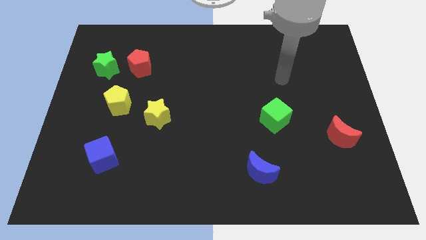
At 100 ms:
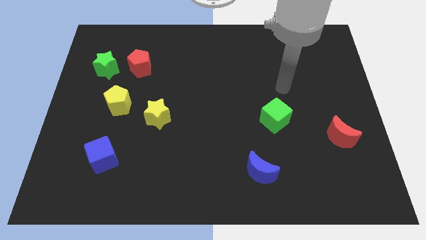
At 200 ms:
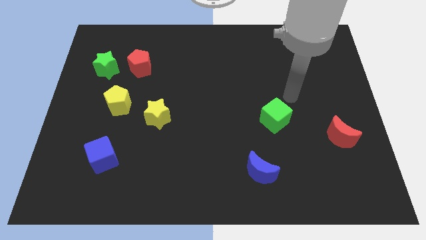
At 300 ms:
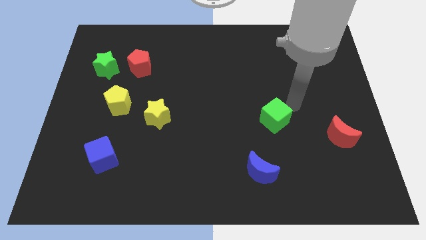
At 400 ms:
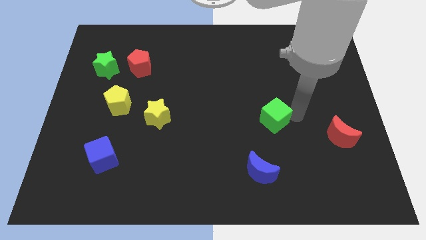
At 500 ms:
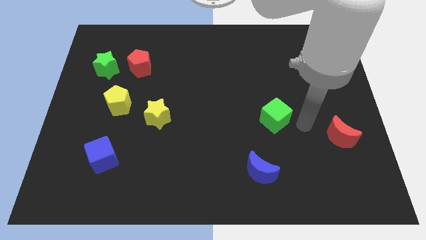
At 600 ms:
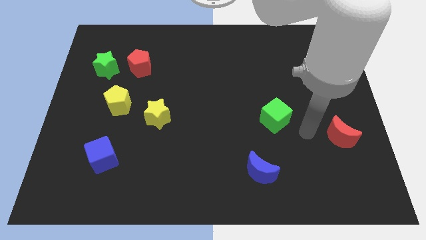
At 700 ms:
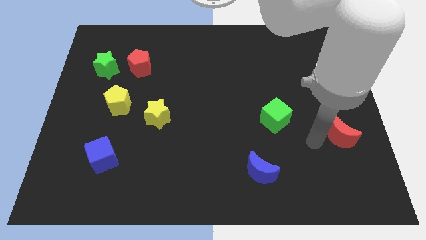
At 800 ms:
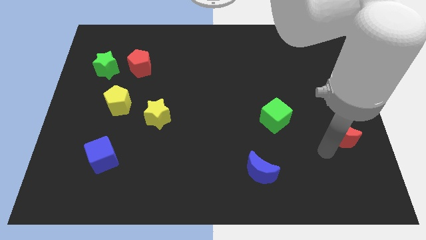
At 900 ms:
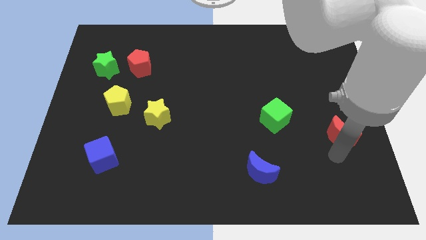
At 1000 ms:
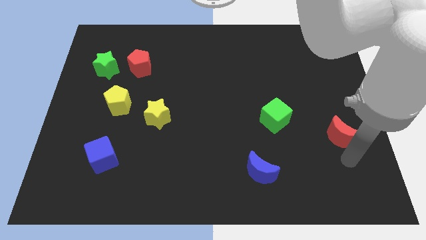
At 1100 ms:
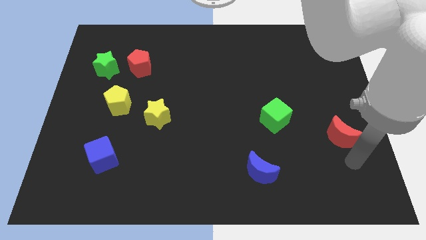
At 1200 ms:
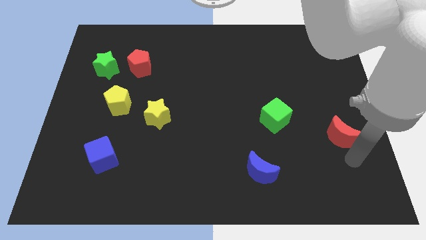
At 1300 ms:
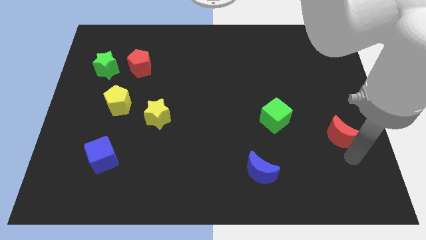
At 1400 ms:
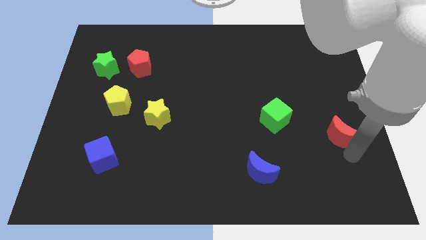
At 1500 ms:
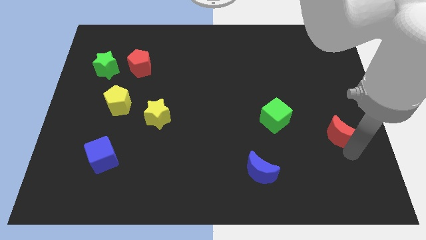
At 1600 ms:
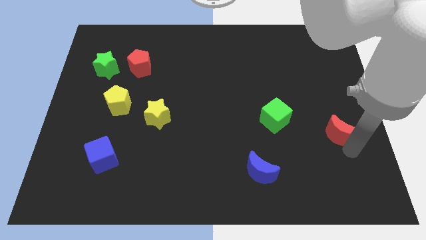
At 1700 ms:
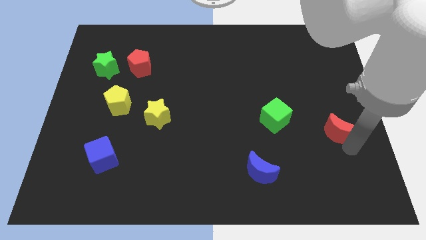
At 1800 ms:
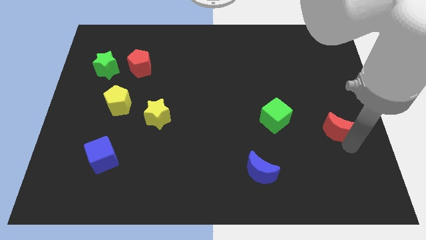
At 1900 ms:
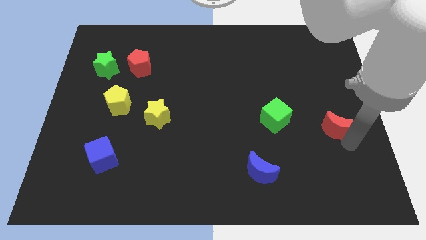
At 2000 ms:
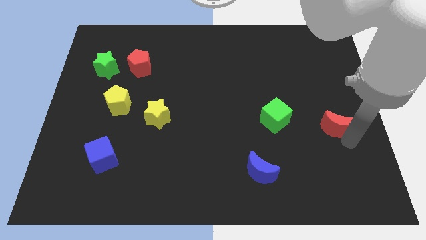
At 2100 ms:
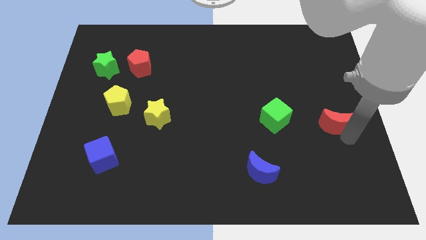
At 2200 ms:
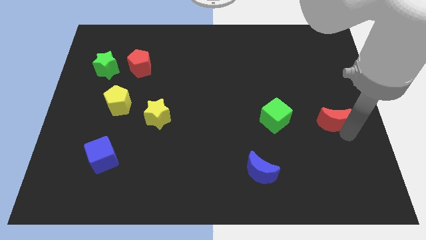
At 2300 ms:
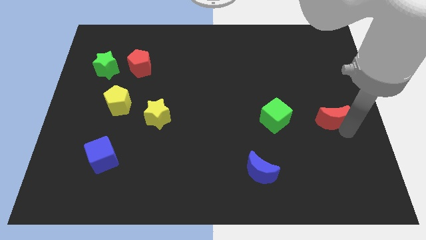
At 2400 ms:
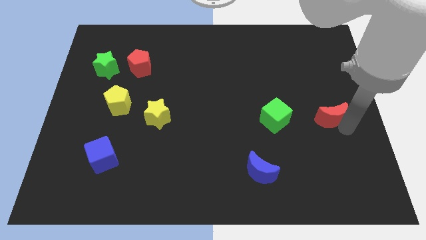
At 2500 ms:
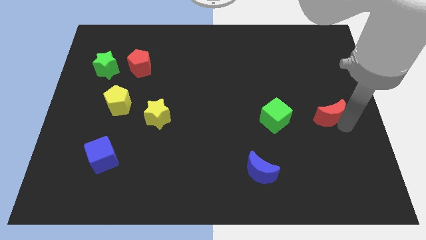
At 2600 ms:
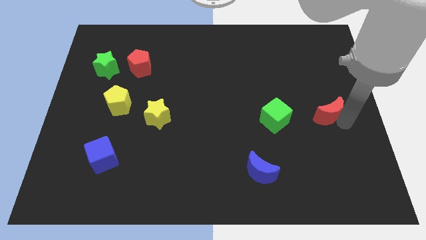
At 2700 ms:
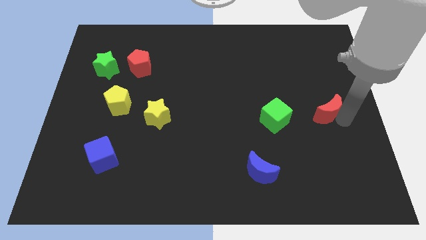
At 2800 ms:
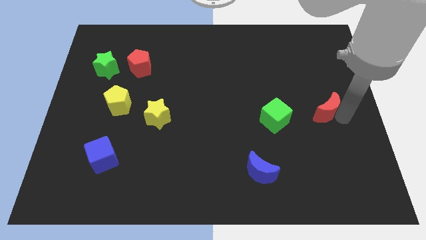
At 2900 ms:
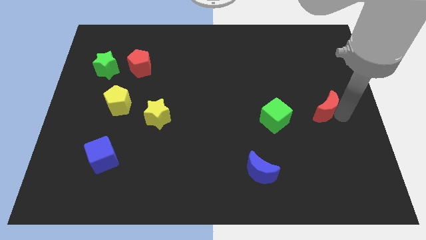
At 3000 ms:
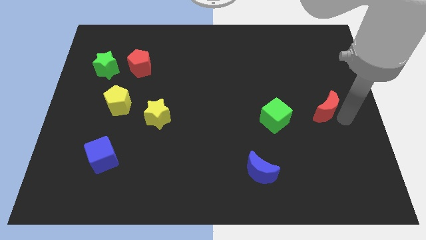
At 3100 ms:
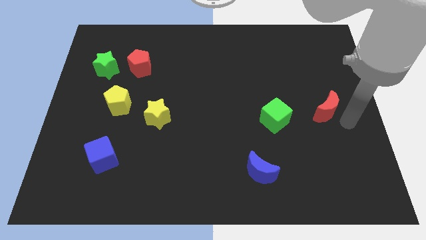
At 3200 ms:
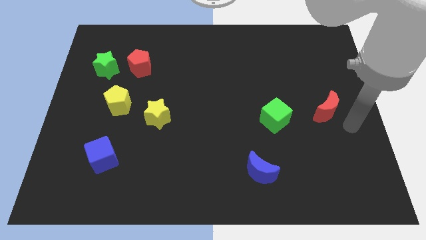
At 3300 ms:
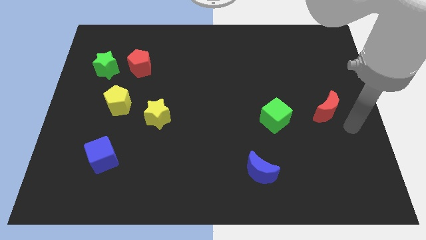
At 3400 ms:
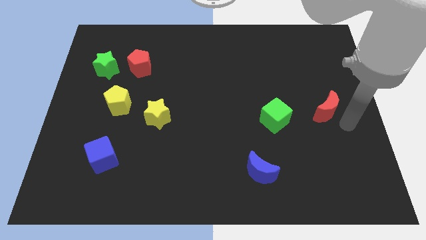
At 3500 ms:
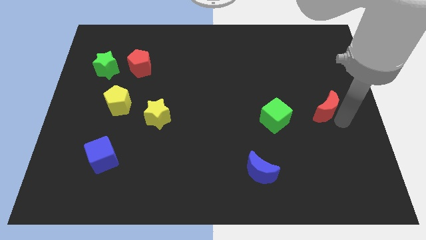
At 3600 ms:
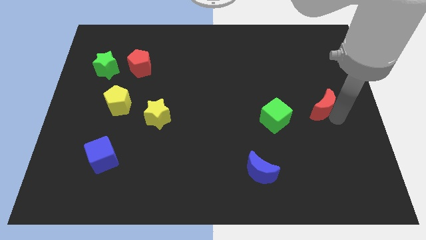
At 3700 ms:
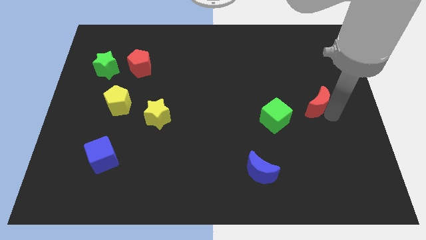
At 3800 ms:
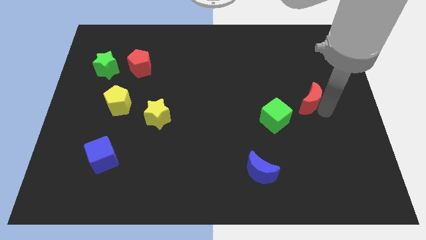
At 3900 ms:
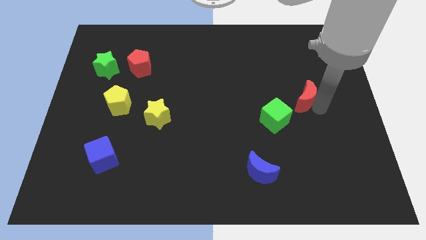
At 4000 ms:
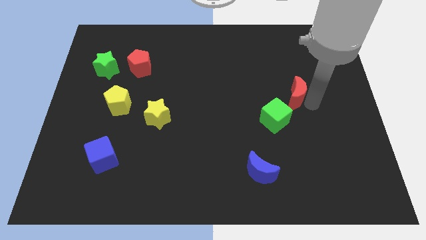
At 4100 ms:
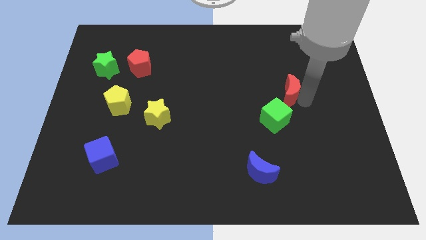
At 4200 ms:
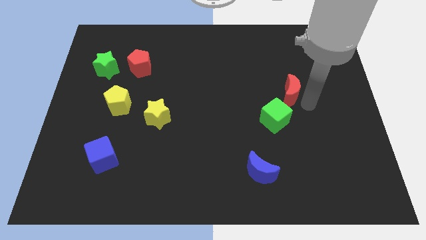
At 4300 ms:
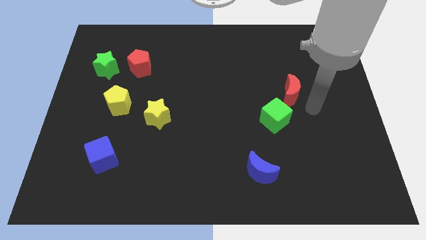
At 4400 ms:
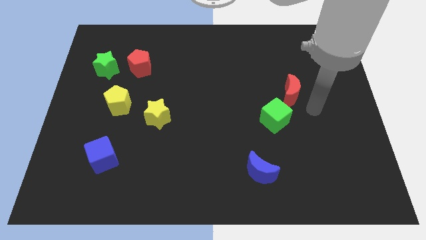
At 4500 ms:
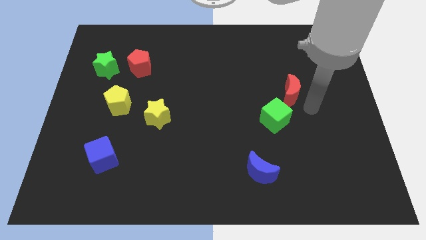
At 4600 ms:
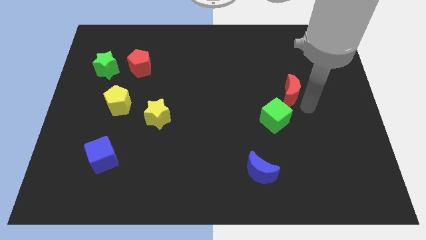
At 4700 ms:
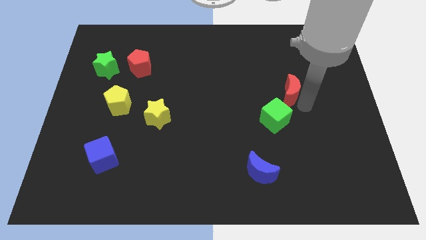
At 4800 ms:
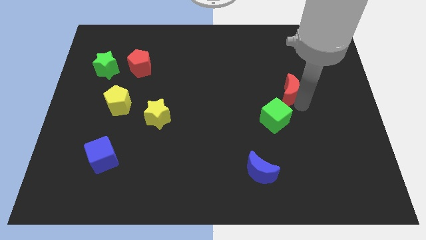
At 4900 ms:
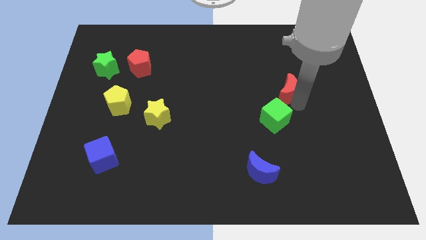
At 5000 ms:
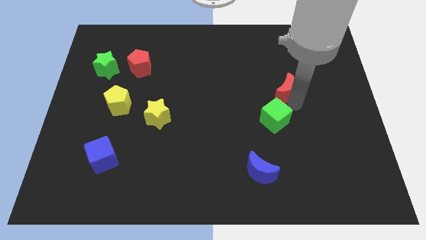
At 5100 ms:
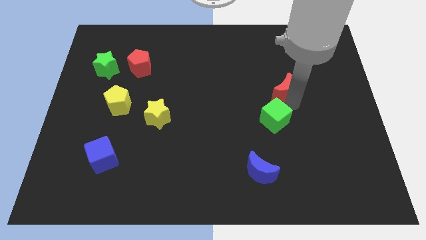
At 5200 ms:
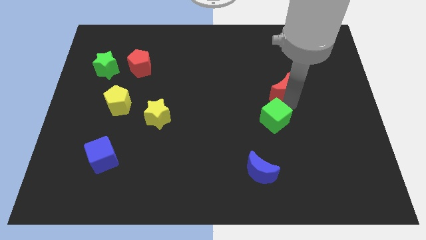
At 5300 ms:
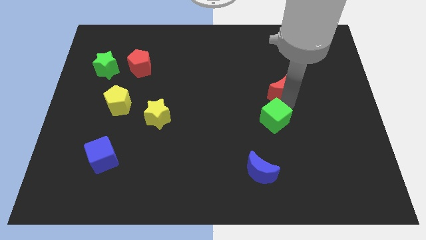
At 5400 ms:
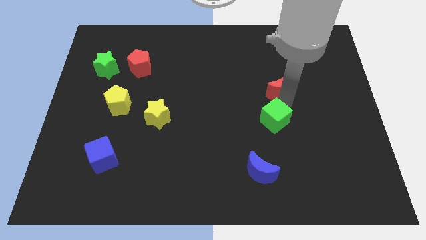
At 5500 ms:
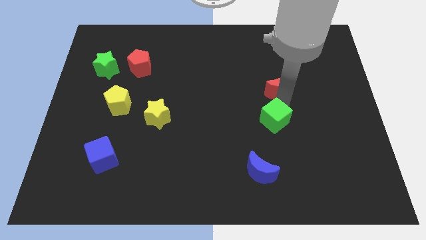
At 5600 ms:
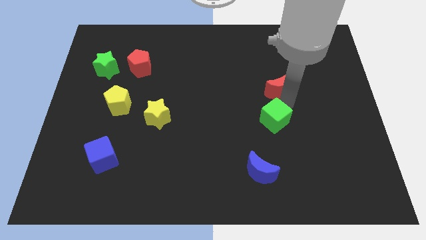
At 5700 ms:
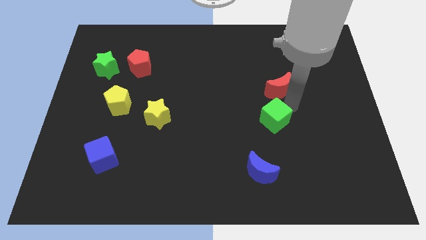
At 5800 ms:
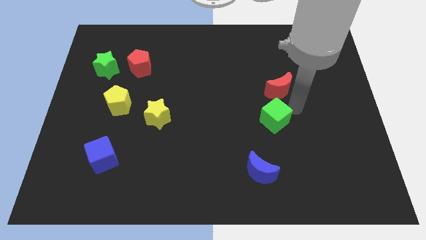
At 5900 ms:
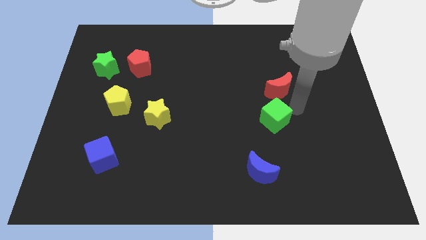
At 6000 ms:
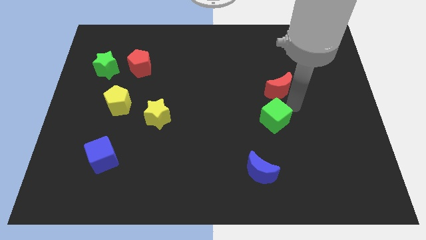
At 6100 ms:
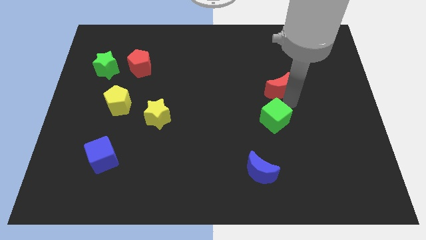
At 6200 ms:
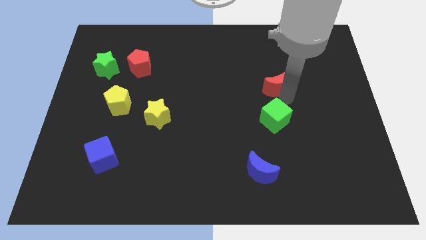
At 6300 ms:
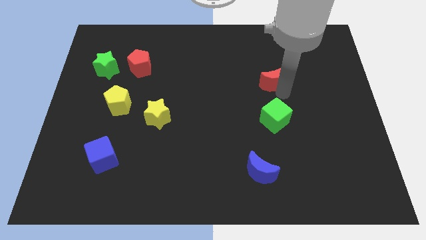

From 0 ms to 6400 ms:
move the red moon upwards and left

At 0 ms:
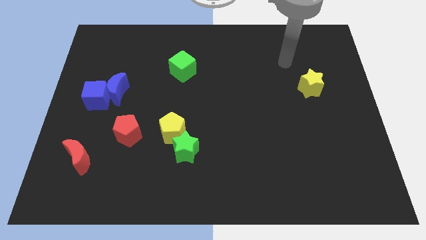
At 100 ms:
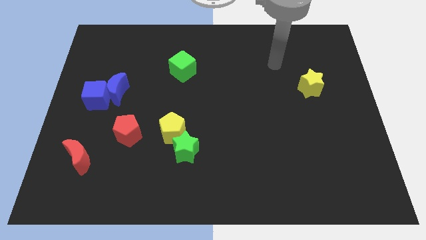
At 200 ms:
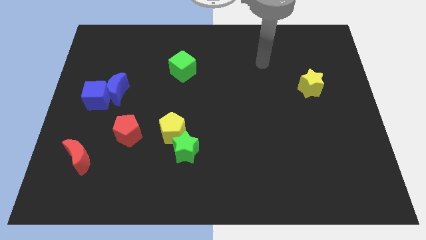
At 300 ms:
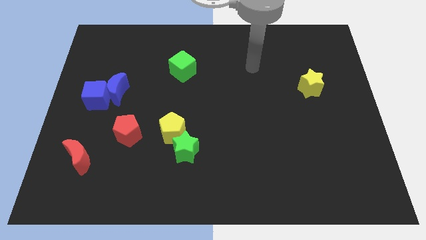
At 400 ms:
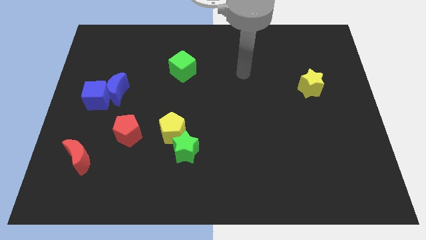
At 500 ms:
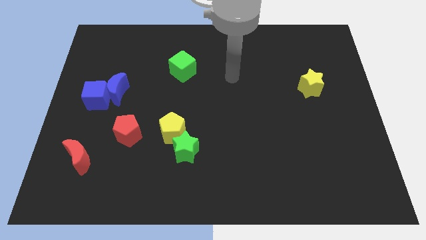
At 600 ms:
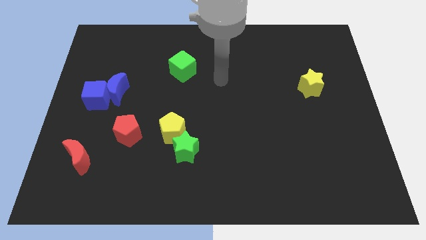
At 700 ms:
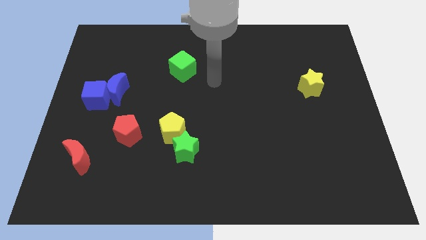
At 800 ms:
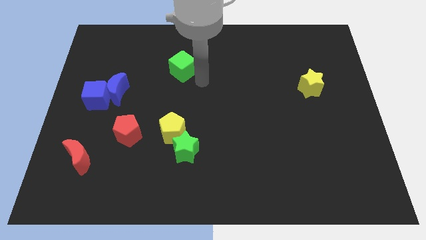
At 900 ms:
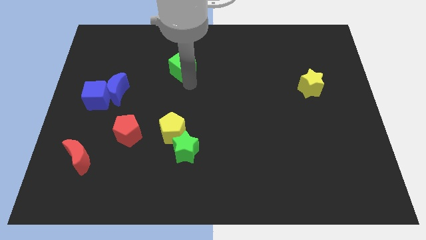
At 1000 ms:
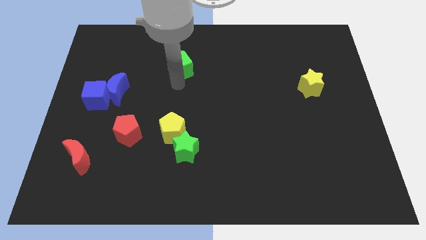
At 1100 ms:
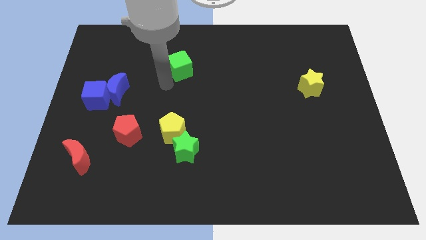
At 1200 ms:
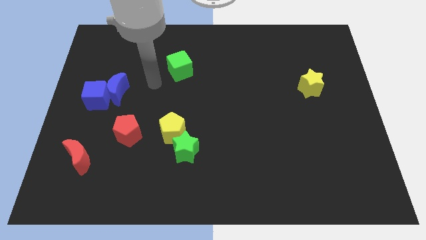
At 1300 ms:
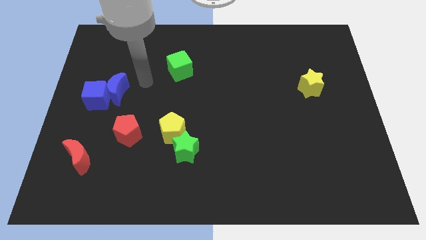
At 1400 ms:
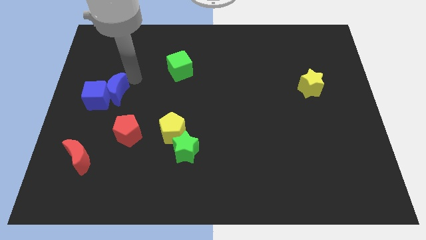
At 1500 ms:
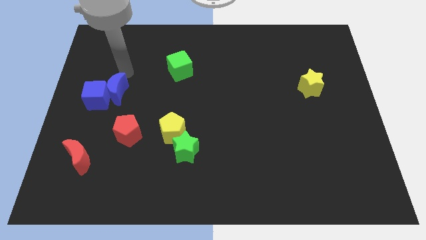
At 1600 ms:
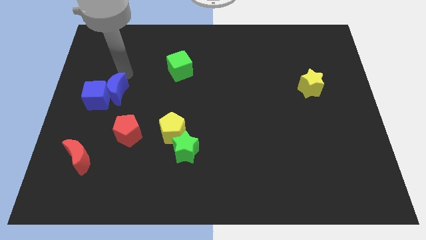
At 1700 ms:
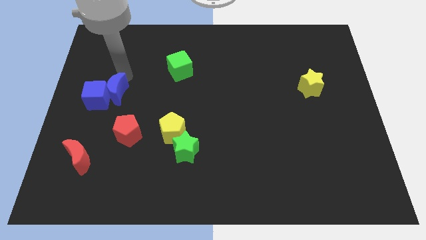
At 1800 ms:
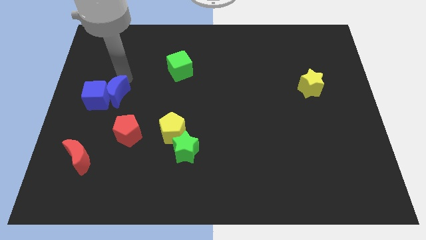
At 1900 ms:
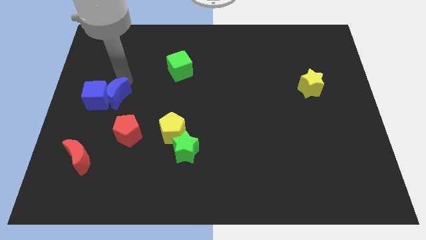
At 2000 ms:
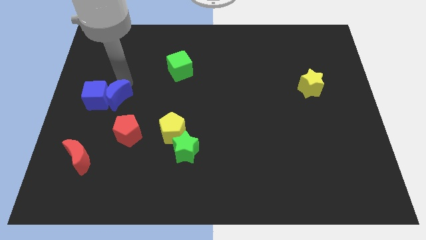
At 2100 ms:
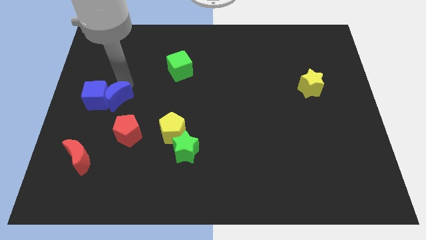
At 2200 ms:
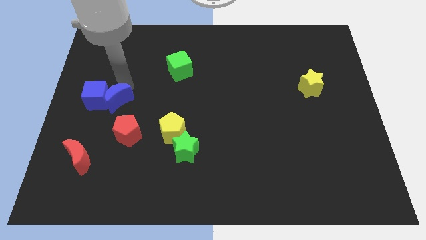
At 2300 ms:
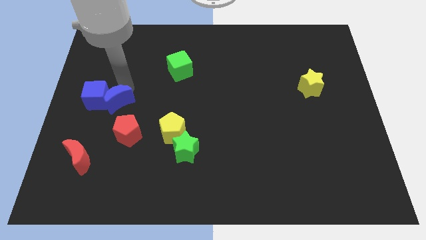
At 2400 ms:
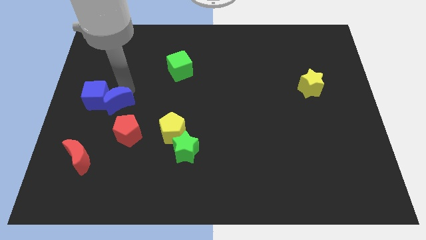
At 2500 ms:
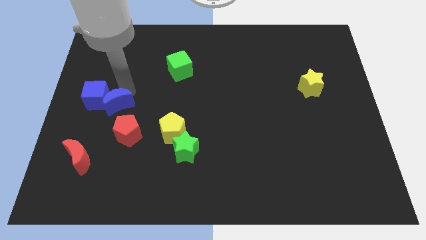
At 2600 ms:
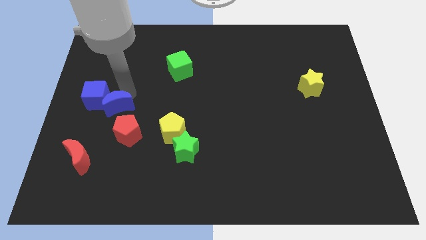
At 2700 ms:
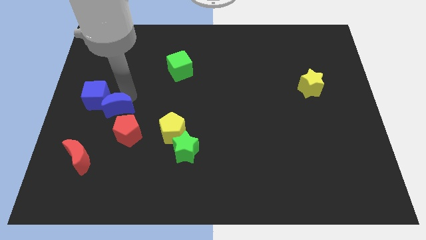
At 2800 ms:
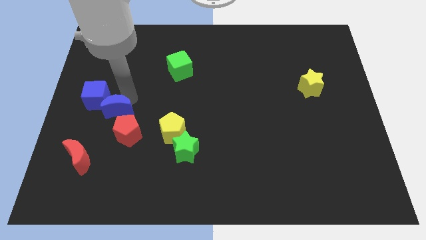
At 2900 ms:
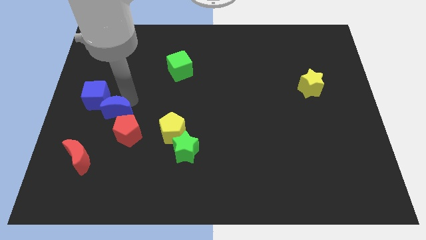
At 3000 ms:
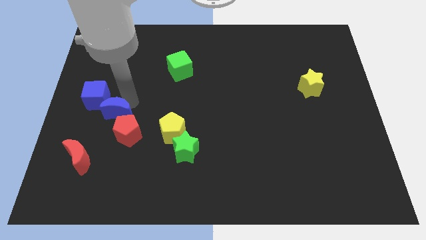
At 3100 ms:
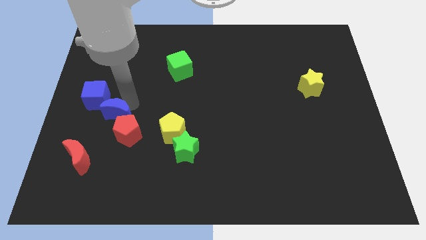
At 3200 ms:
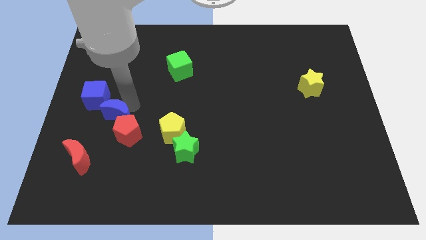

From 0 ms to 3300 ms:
slightly push the blue moon downwards
